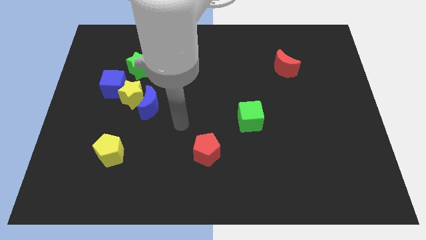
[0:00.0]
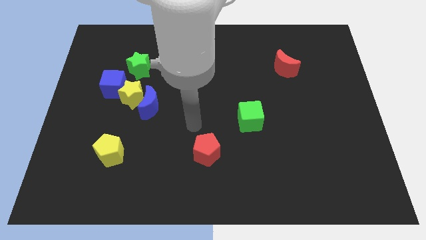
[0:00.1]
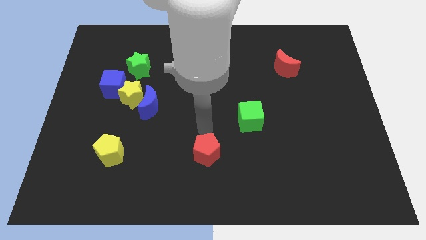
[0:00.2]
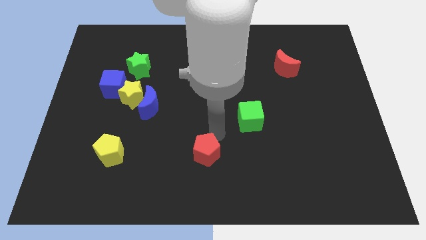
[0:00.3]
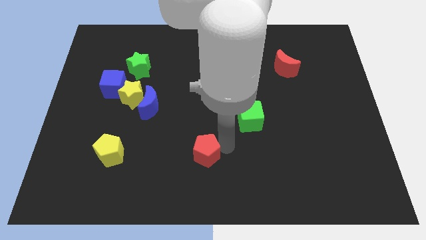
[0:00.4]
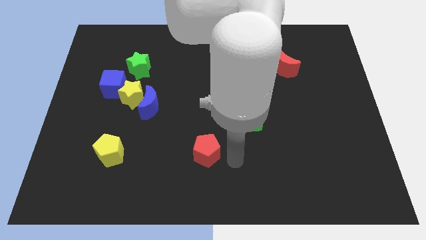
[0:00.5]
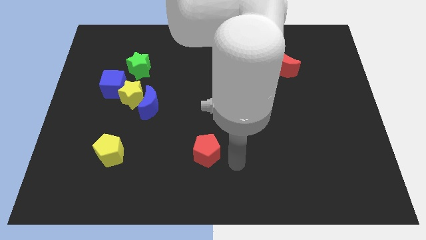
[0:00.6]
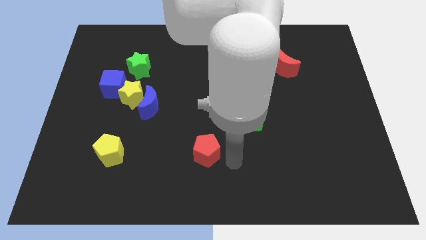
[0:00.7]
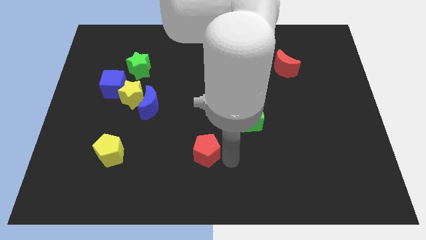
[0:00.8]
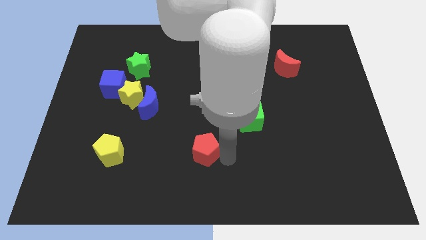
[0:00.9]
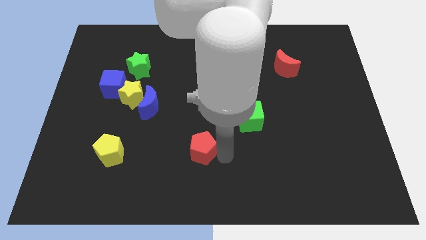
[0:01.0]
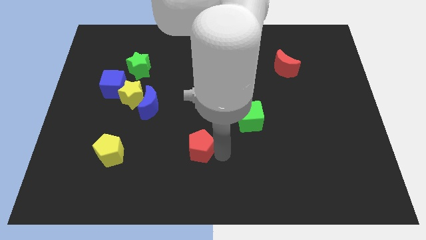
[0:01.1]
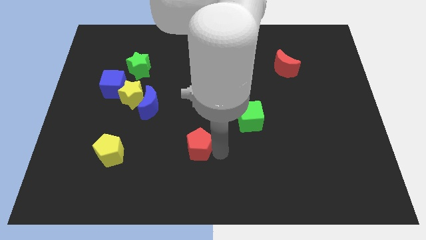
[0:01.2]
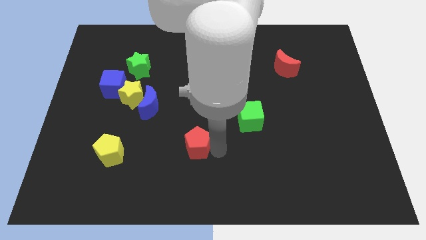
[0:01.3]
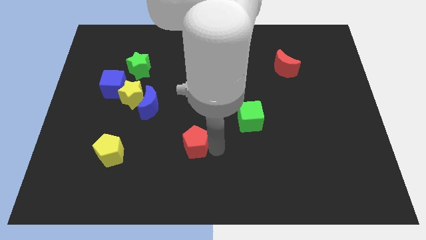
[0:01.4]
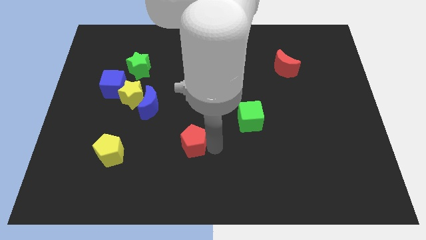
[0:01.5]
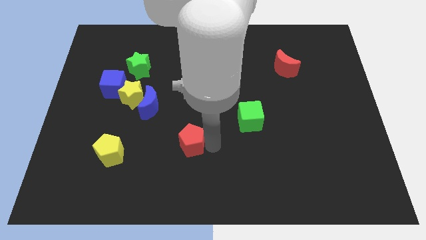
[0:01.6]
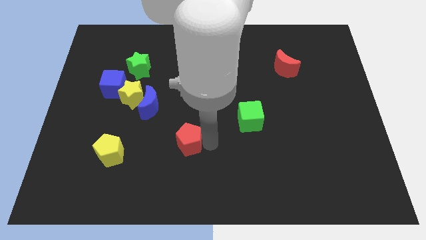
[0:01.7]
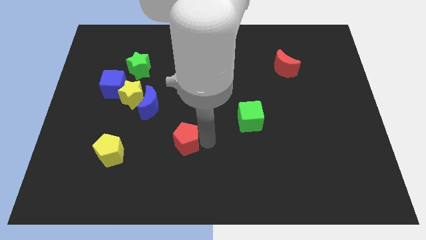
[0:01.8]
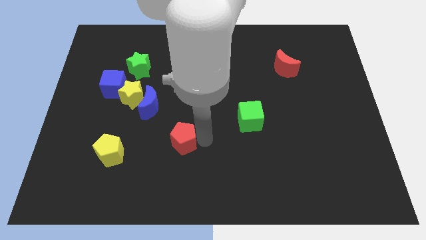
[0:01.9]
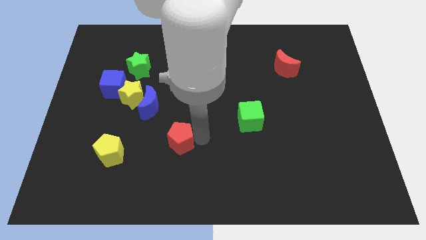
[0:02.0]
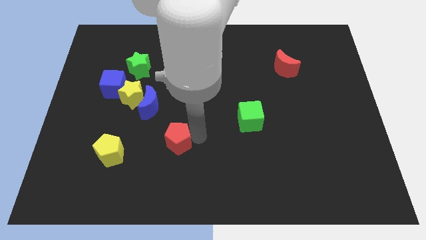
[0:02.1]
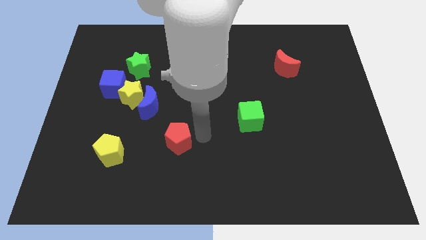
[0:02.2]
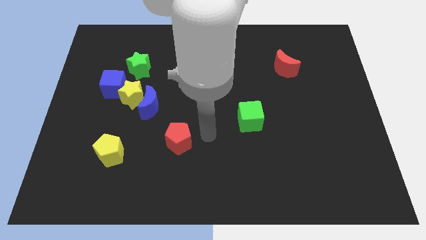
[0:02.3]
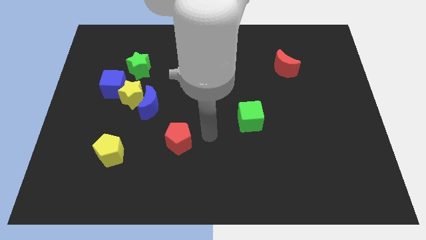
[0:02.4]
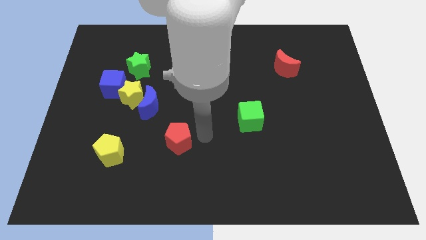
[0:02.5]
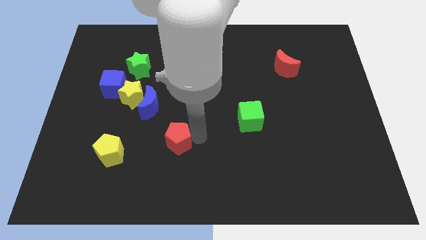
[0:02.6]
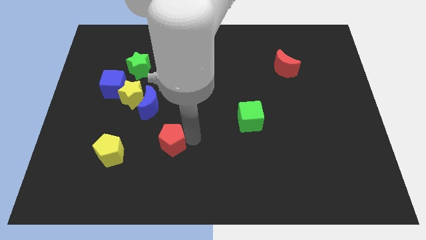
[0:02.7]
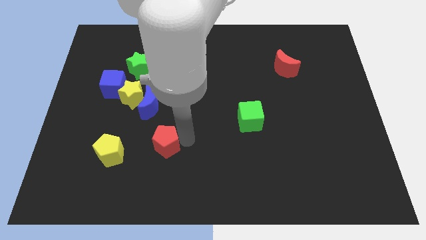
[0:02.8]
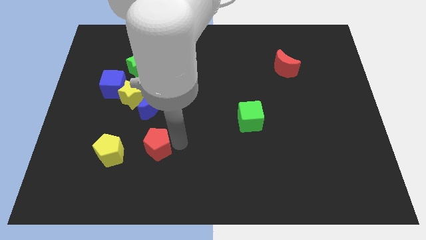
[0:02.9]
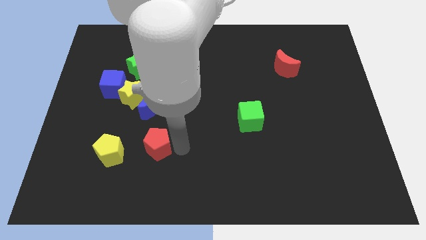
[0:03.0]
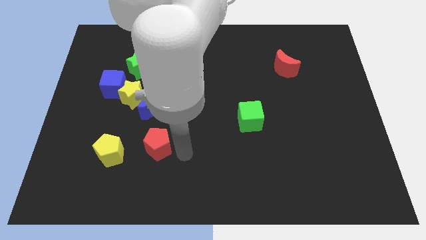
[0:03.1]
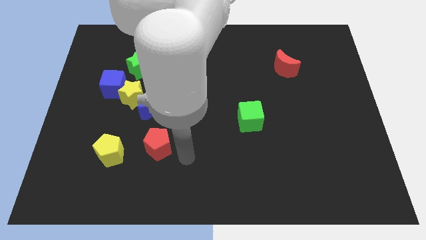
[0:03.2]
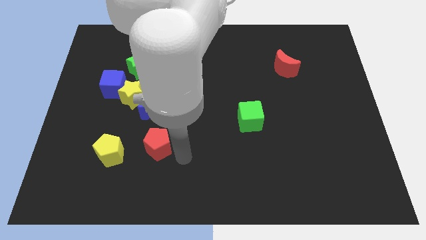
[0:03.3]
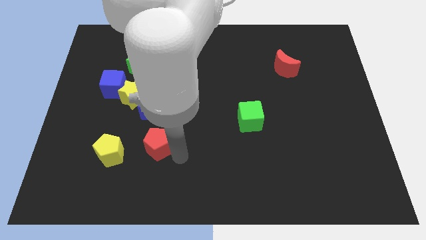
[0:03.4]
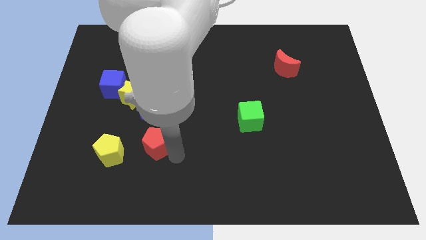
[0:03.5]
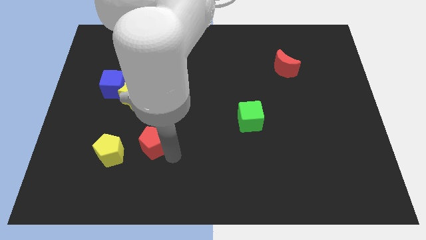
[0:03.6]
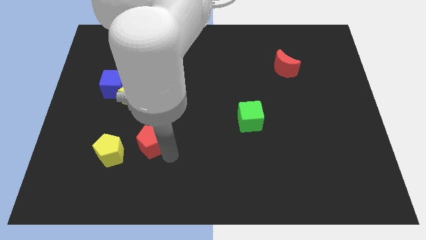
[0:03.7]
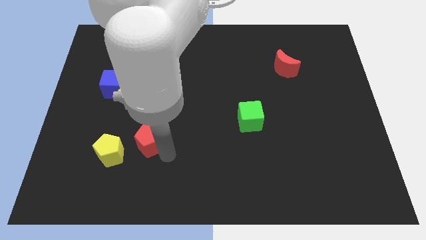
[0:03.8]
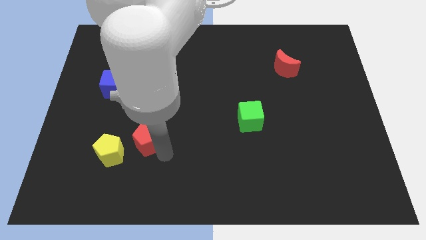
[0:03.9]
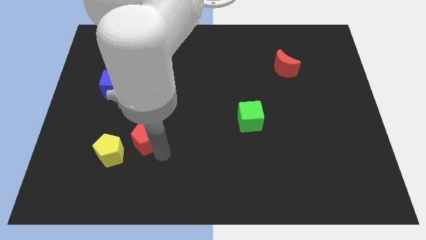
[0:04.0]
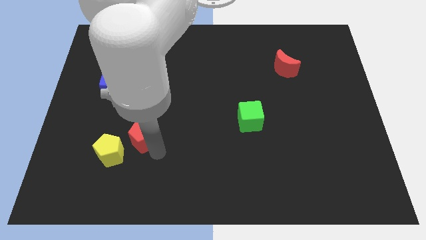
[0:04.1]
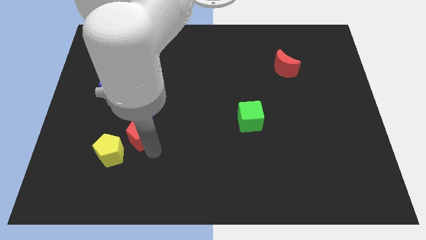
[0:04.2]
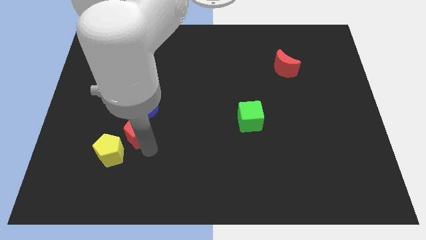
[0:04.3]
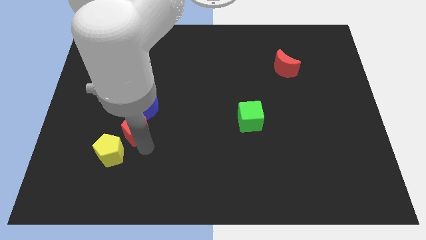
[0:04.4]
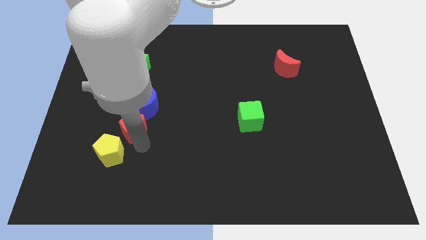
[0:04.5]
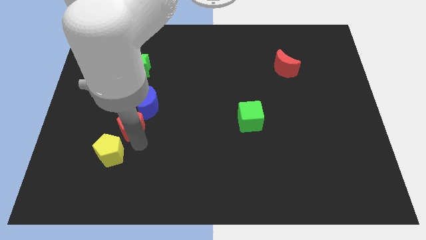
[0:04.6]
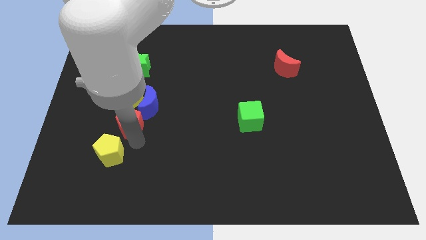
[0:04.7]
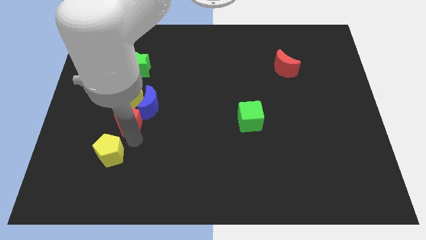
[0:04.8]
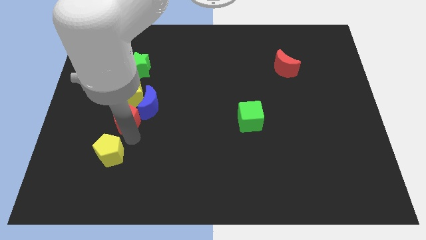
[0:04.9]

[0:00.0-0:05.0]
slide the red pentagon to the bottom side of the blue cube

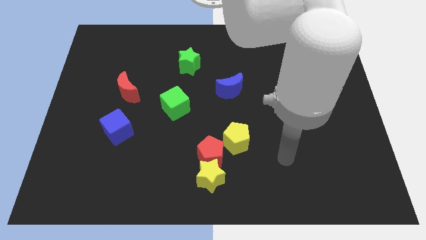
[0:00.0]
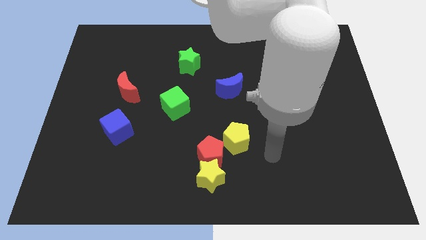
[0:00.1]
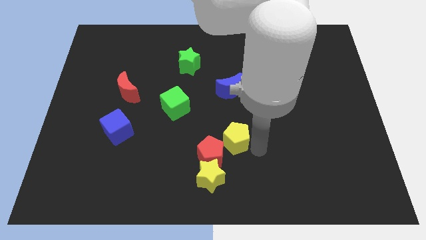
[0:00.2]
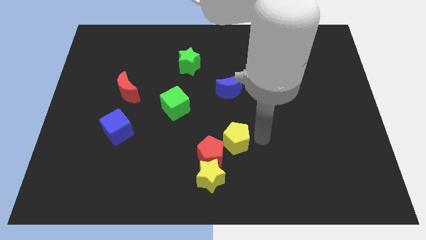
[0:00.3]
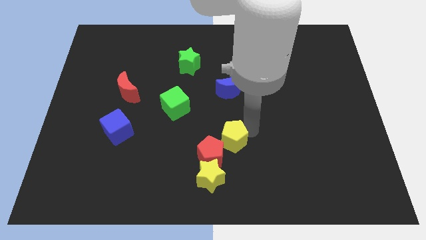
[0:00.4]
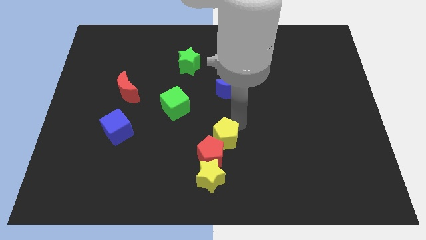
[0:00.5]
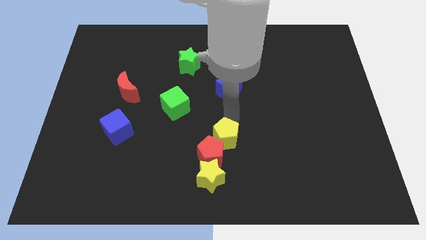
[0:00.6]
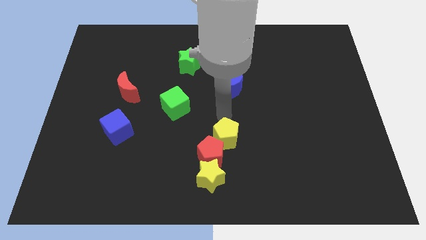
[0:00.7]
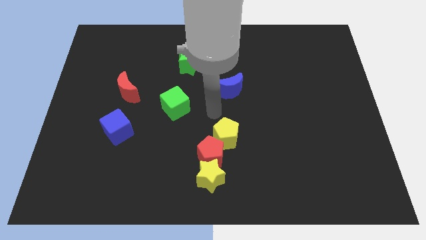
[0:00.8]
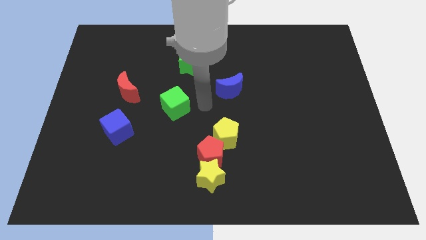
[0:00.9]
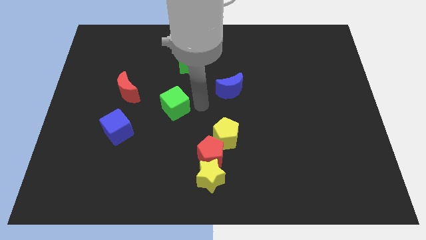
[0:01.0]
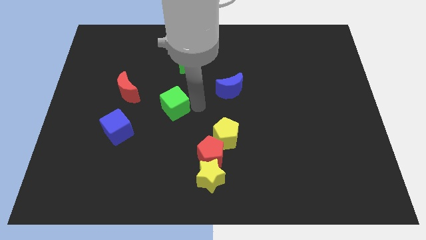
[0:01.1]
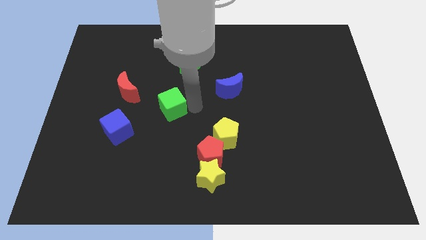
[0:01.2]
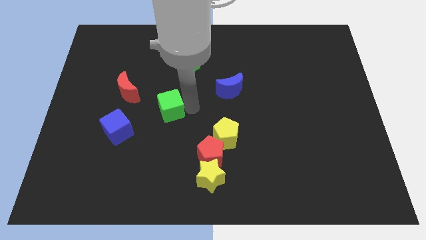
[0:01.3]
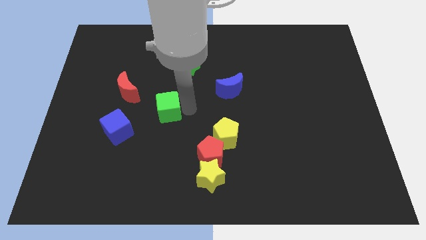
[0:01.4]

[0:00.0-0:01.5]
push the green cube to the bottom right side of the red moon

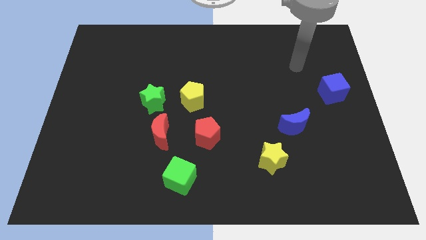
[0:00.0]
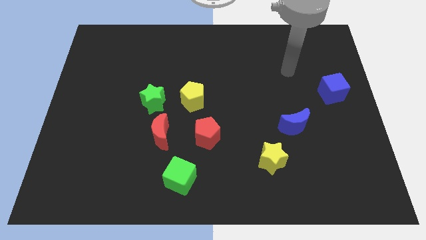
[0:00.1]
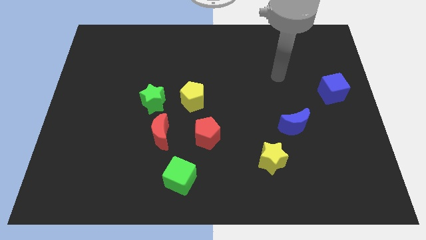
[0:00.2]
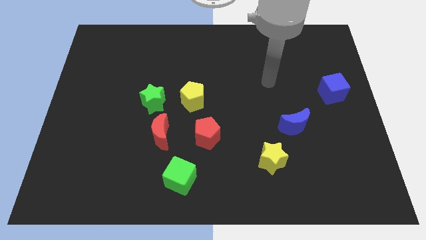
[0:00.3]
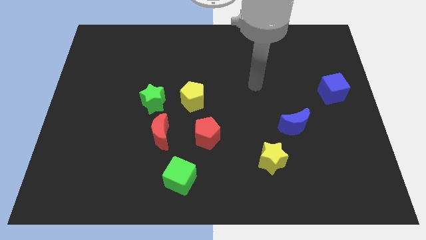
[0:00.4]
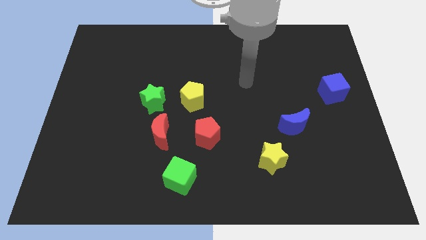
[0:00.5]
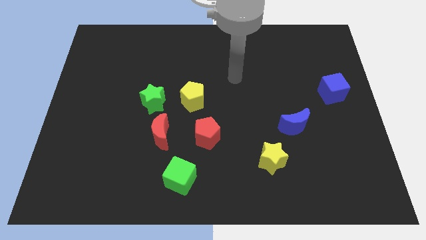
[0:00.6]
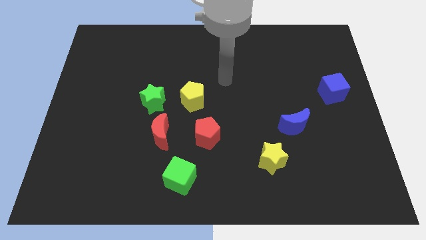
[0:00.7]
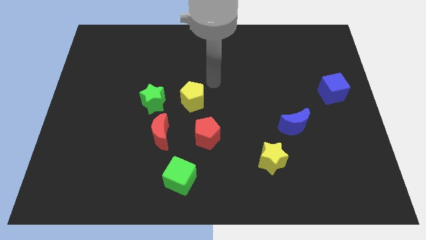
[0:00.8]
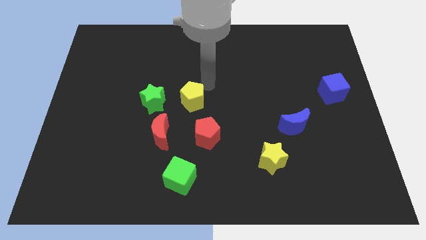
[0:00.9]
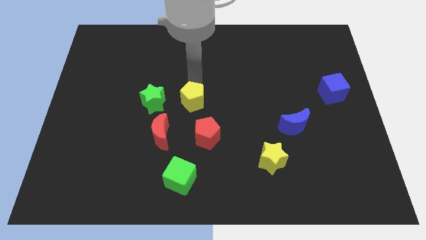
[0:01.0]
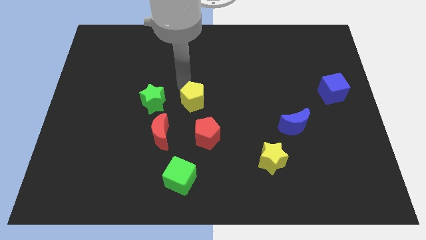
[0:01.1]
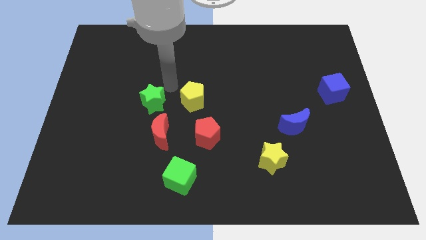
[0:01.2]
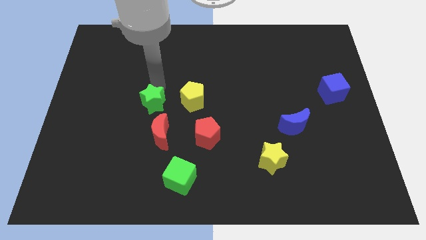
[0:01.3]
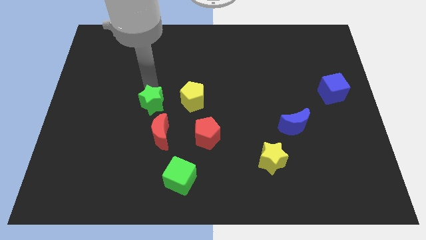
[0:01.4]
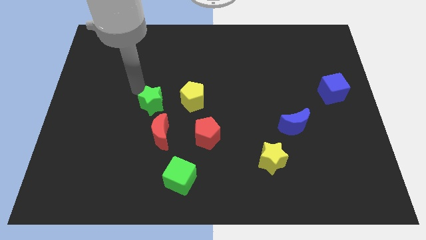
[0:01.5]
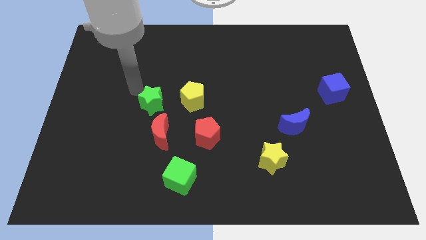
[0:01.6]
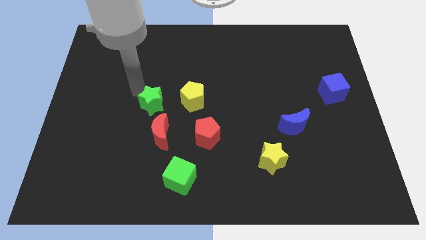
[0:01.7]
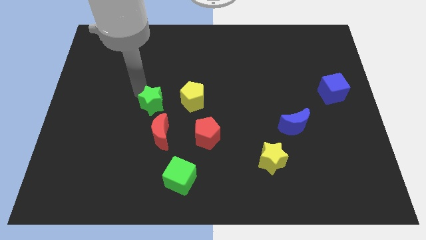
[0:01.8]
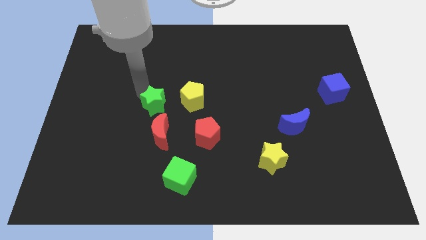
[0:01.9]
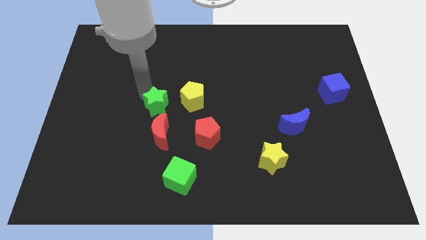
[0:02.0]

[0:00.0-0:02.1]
put the green star to the bottom left side of the yellow pentagon
